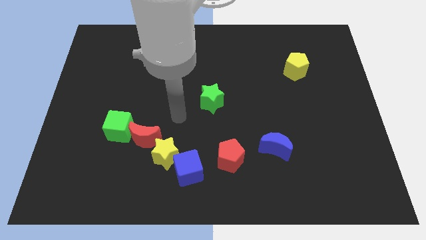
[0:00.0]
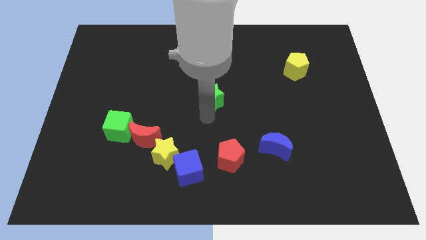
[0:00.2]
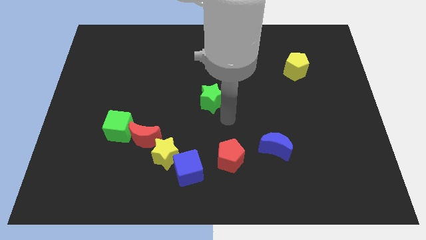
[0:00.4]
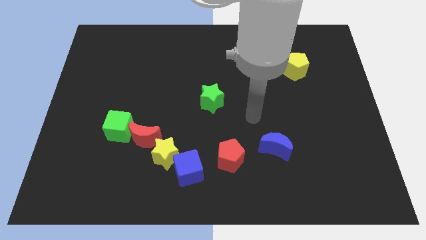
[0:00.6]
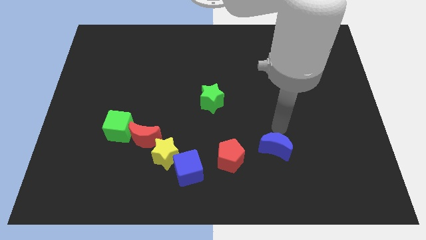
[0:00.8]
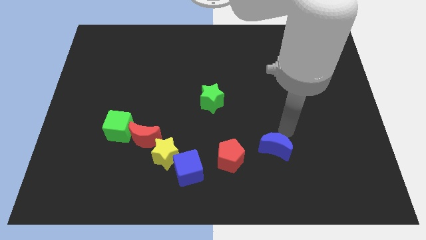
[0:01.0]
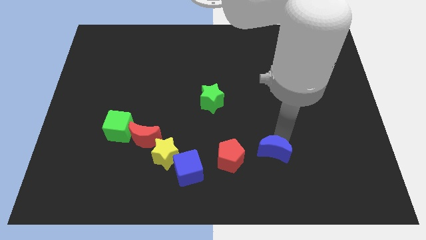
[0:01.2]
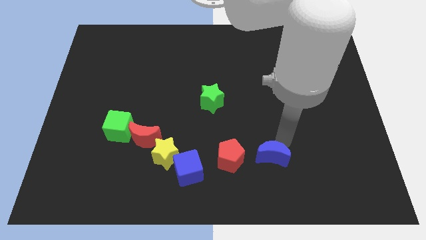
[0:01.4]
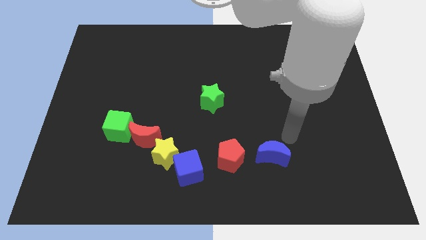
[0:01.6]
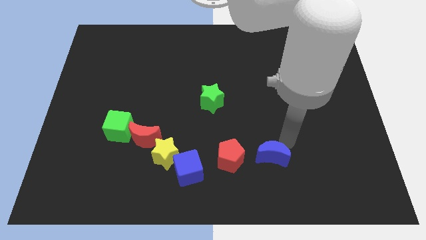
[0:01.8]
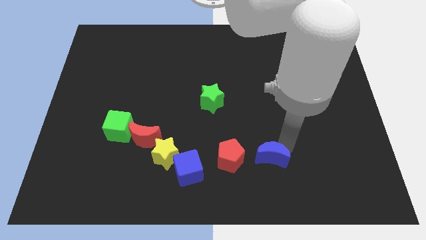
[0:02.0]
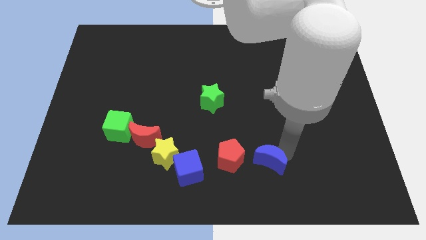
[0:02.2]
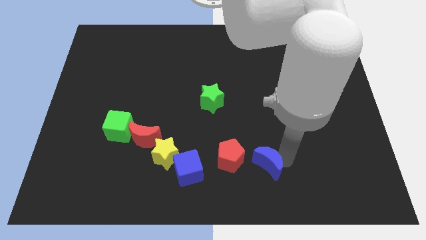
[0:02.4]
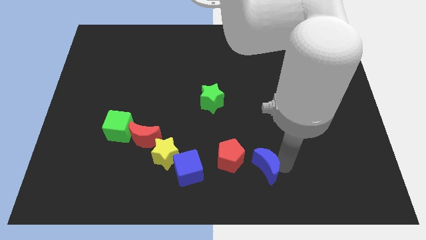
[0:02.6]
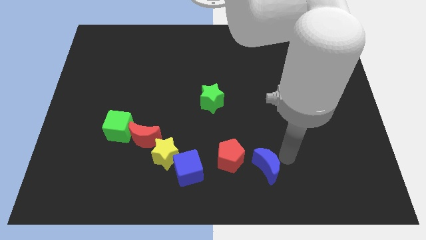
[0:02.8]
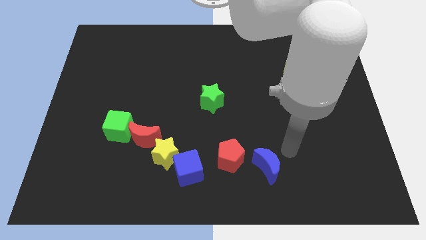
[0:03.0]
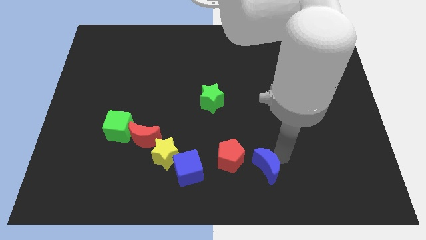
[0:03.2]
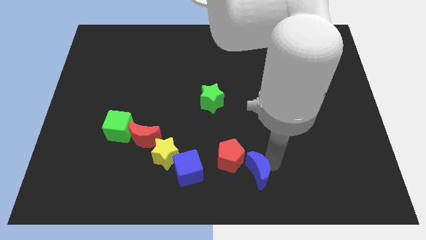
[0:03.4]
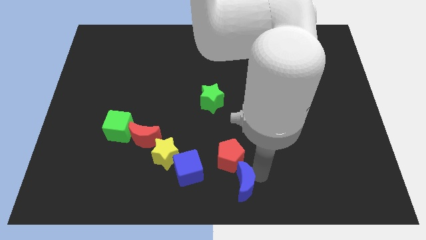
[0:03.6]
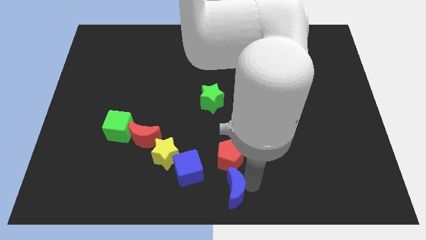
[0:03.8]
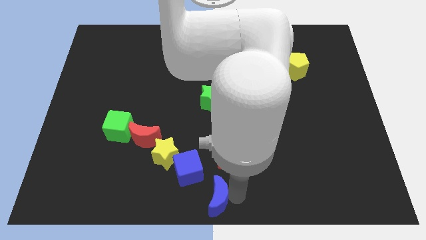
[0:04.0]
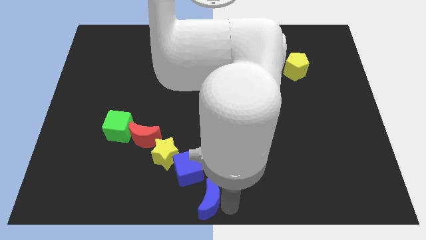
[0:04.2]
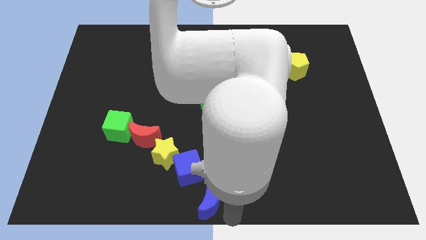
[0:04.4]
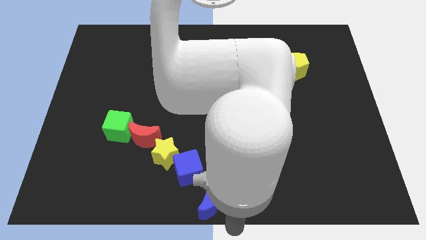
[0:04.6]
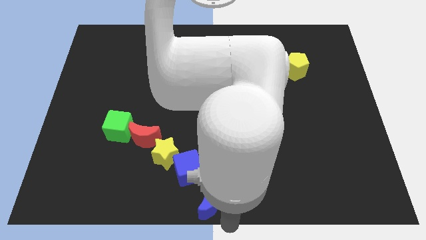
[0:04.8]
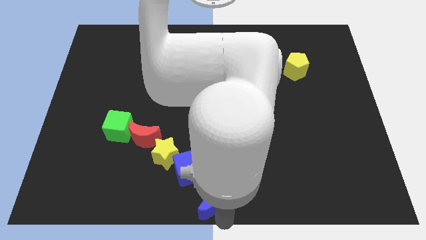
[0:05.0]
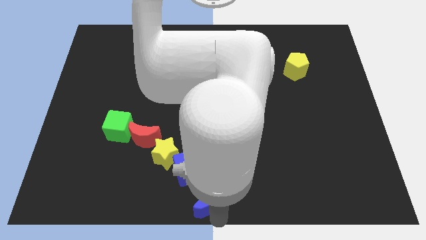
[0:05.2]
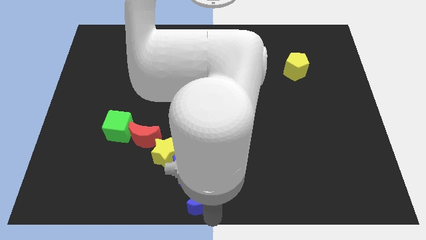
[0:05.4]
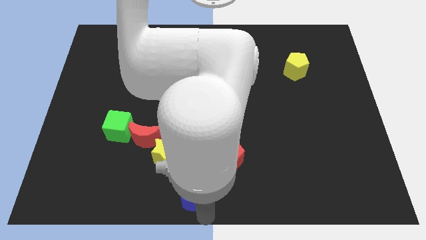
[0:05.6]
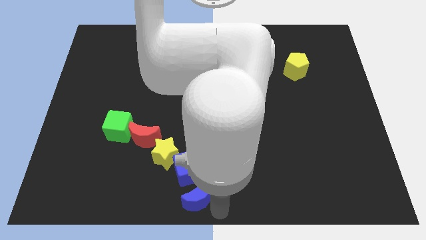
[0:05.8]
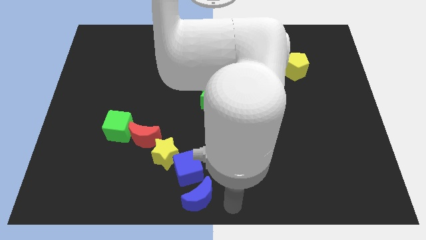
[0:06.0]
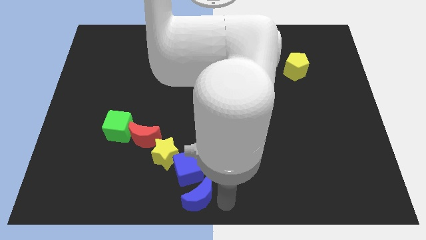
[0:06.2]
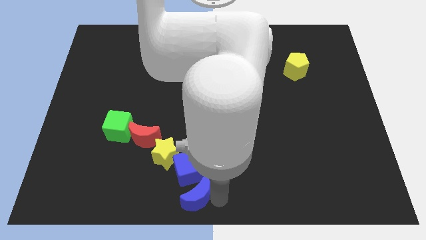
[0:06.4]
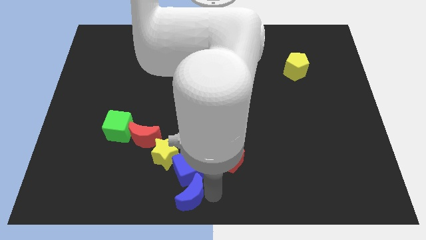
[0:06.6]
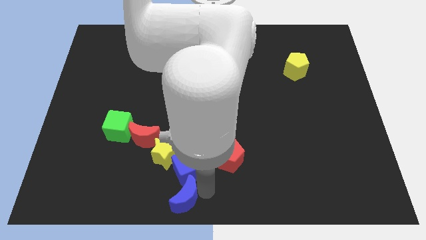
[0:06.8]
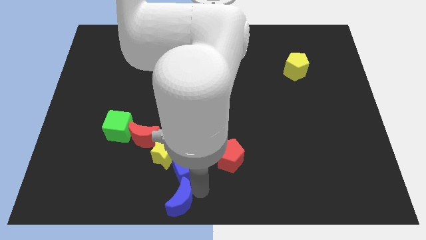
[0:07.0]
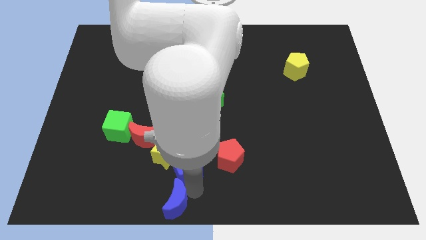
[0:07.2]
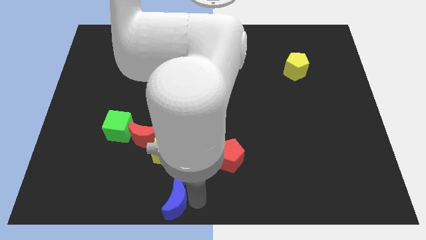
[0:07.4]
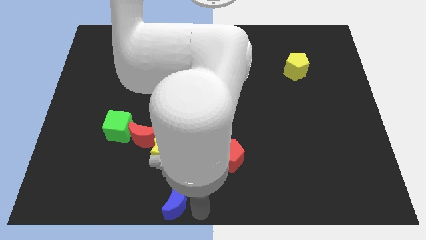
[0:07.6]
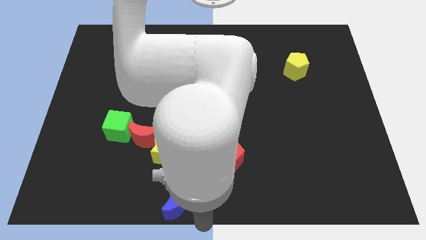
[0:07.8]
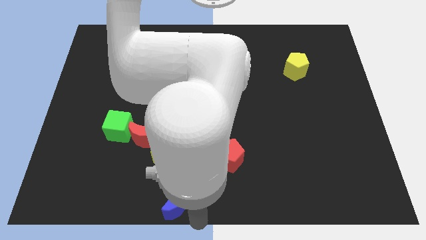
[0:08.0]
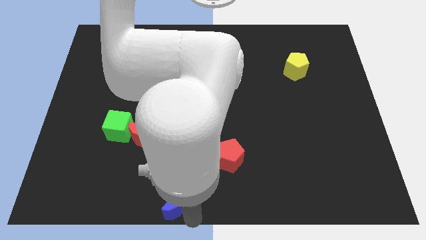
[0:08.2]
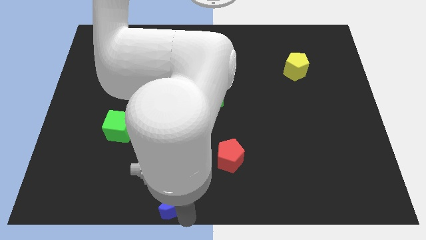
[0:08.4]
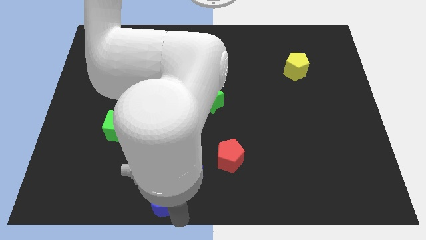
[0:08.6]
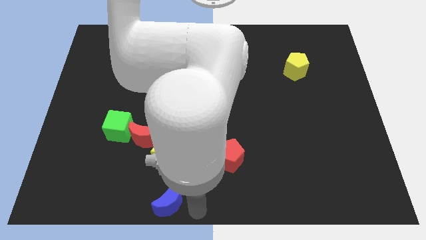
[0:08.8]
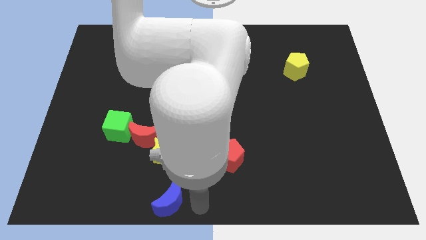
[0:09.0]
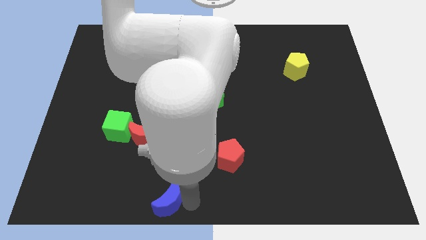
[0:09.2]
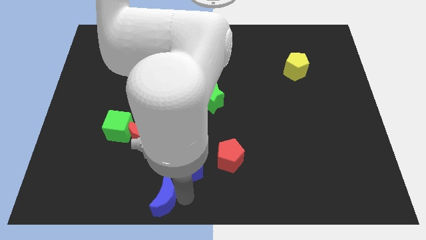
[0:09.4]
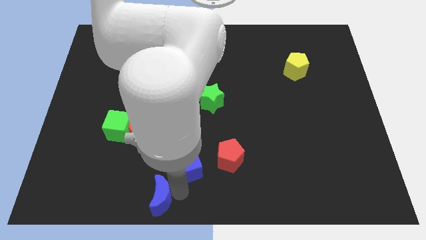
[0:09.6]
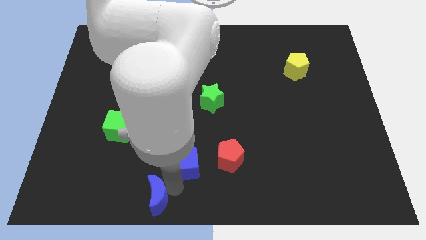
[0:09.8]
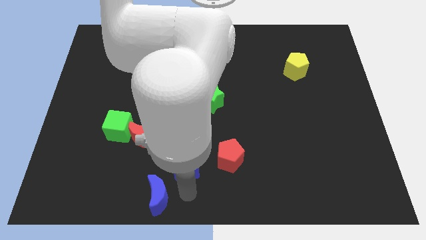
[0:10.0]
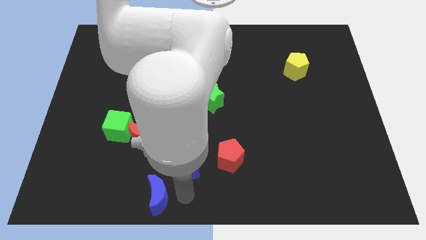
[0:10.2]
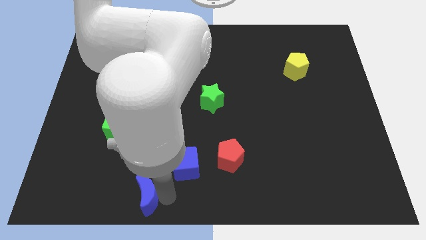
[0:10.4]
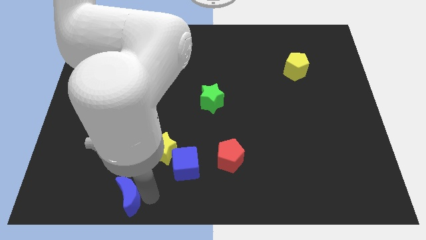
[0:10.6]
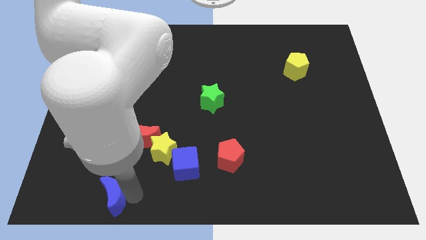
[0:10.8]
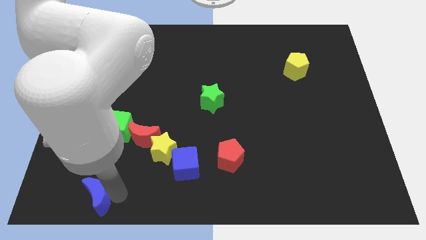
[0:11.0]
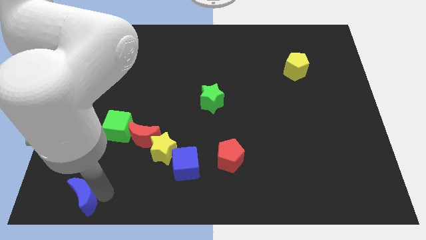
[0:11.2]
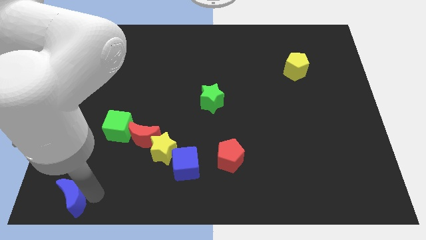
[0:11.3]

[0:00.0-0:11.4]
push the blue moon to the bottom left of the board

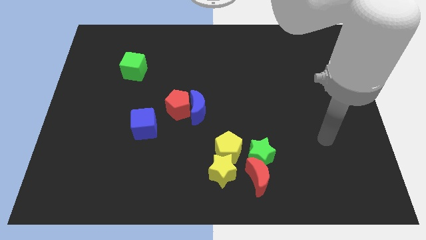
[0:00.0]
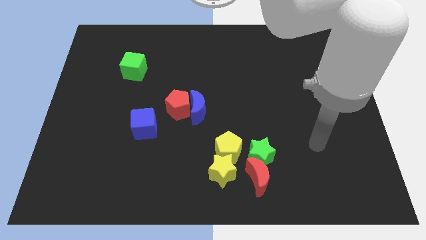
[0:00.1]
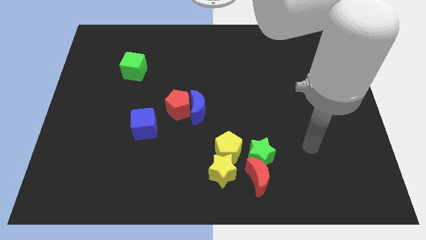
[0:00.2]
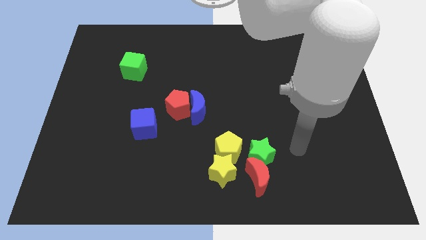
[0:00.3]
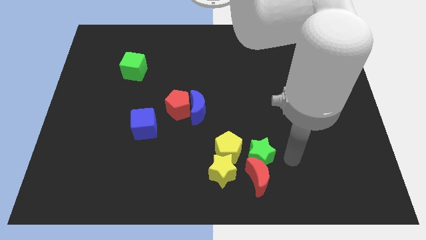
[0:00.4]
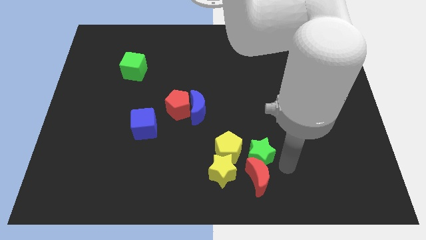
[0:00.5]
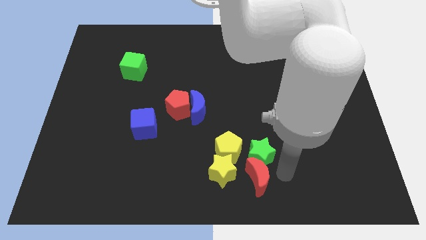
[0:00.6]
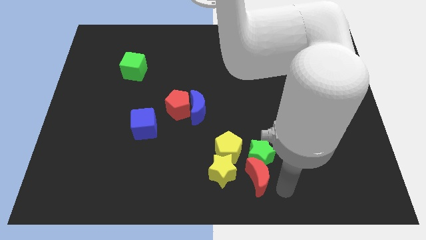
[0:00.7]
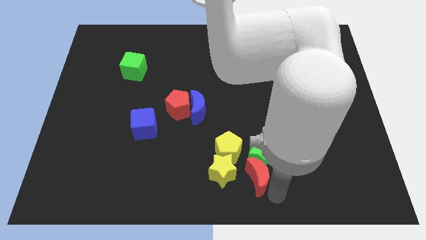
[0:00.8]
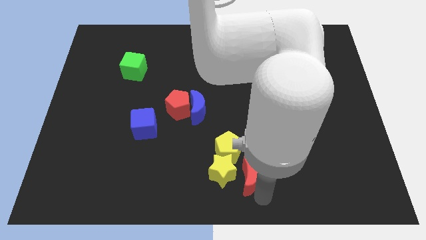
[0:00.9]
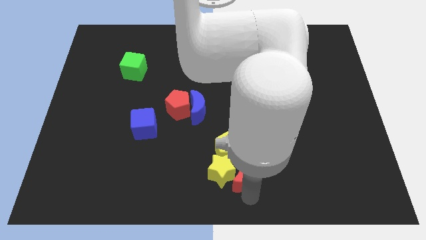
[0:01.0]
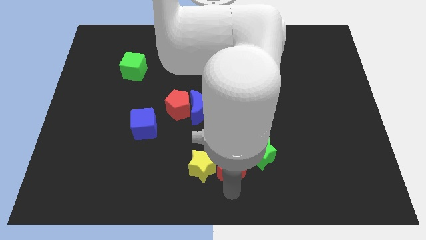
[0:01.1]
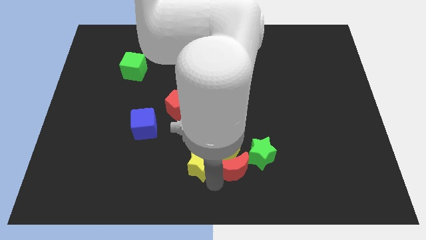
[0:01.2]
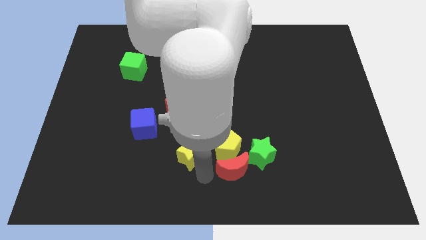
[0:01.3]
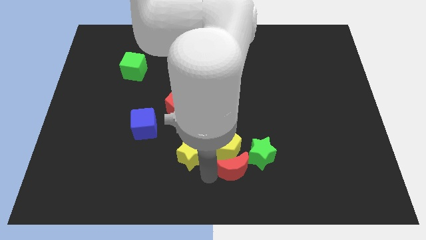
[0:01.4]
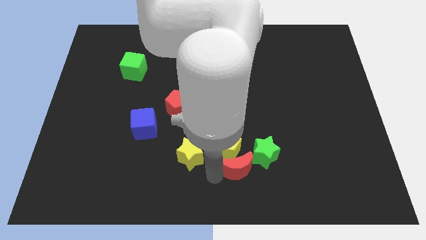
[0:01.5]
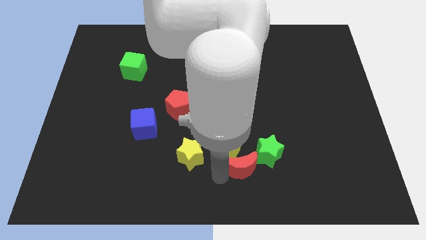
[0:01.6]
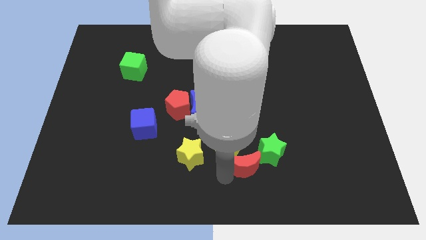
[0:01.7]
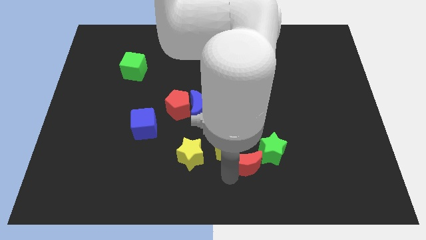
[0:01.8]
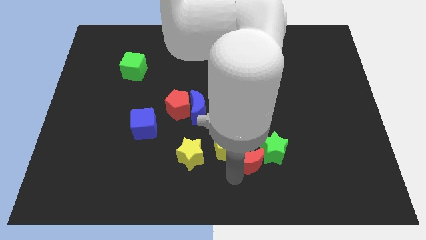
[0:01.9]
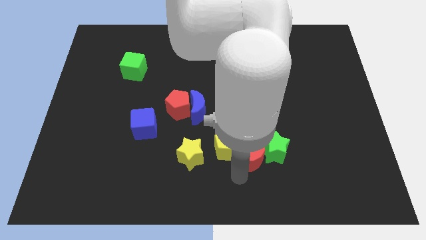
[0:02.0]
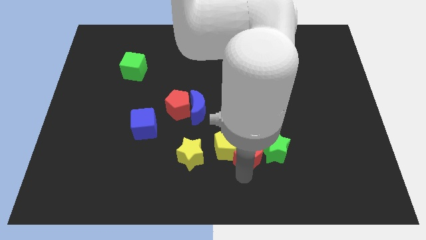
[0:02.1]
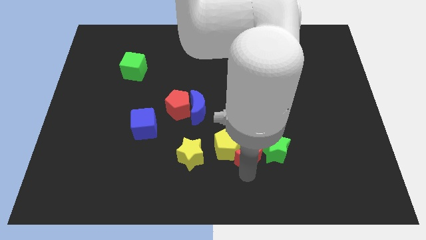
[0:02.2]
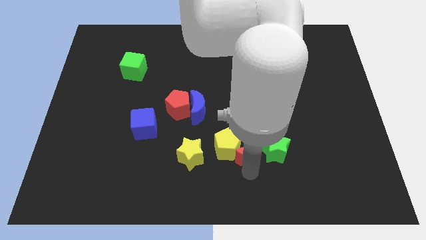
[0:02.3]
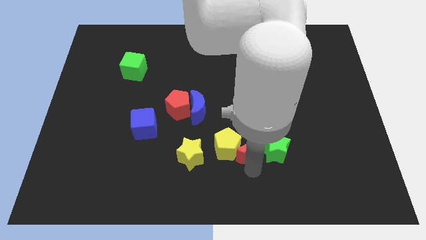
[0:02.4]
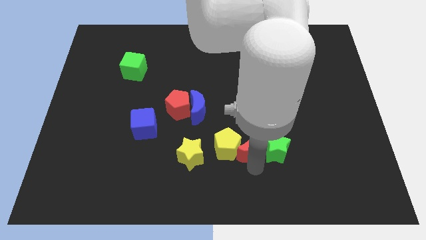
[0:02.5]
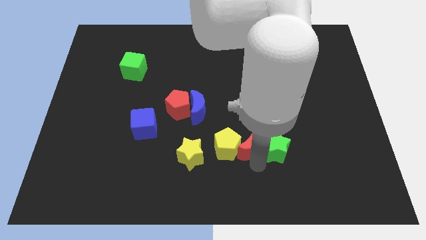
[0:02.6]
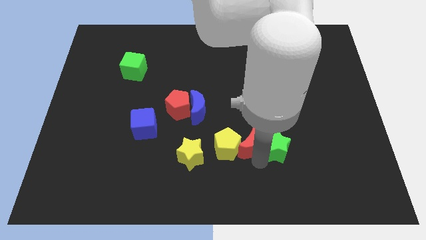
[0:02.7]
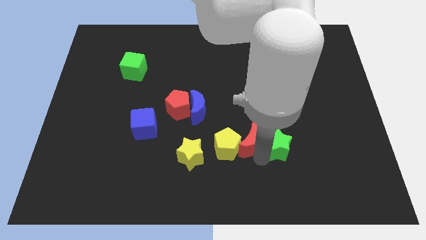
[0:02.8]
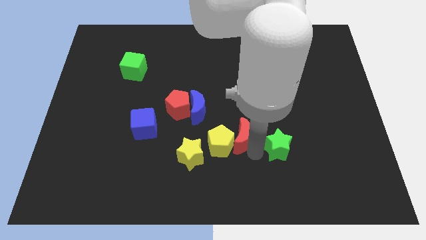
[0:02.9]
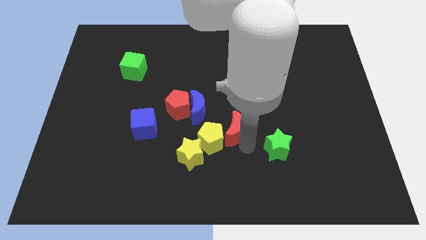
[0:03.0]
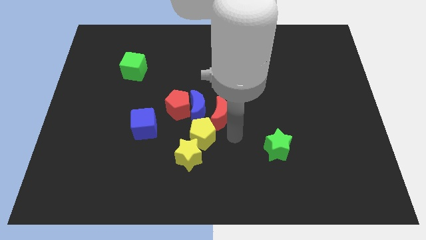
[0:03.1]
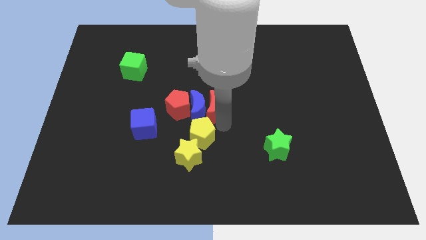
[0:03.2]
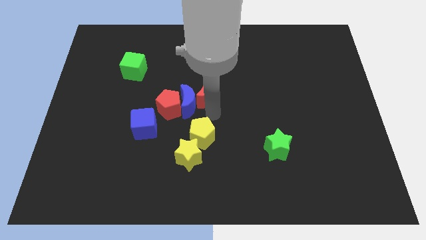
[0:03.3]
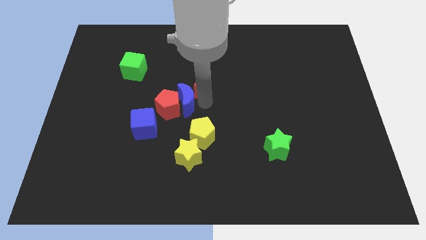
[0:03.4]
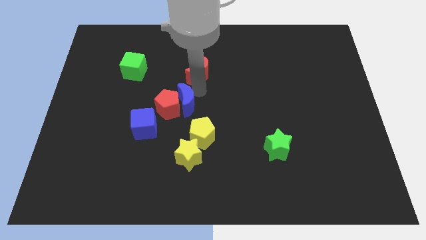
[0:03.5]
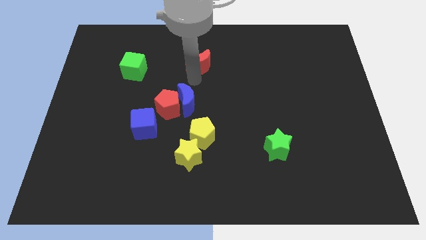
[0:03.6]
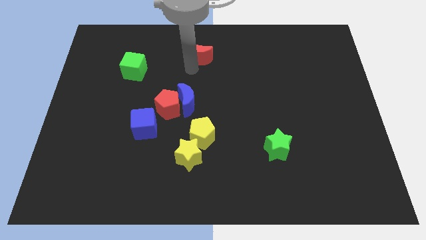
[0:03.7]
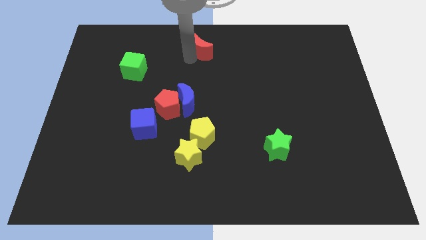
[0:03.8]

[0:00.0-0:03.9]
put the red moon to the top
